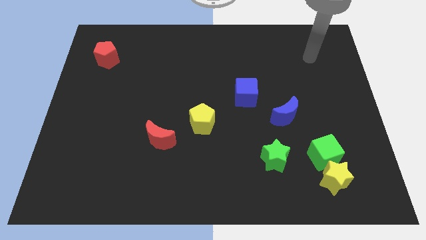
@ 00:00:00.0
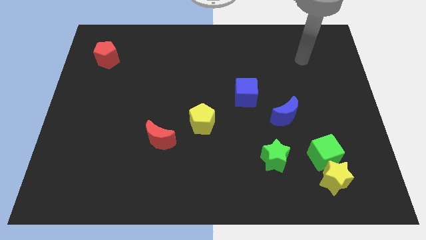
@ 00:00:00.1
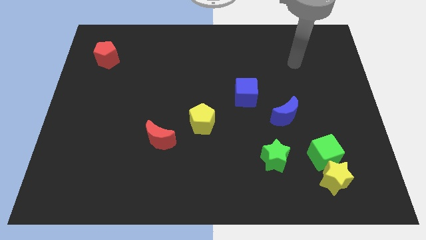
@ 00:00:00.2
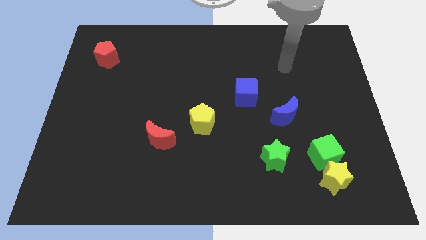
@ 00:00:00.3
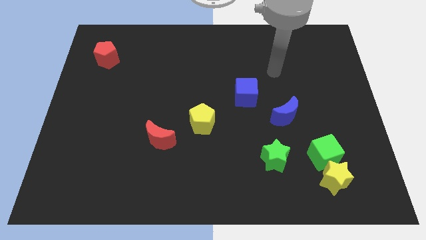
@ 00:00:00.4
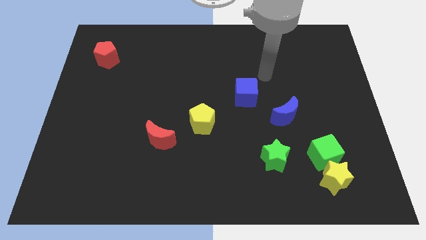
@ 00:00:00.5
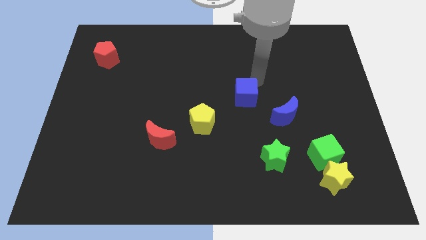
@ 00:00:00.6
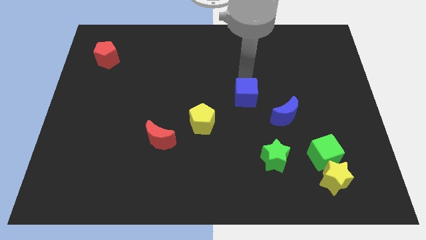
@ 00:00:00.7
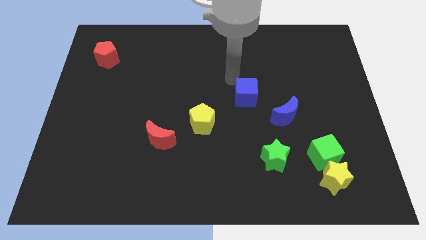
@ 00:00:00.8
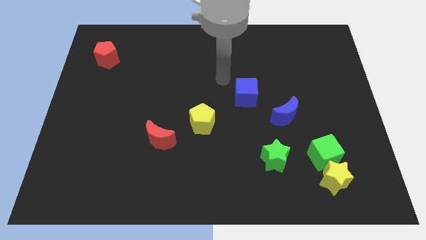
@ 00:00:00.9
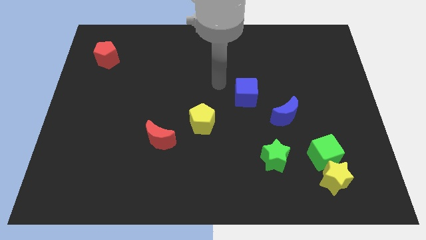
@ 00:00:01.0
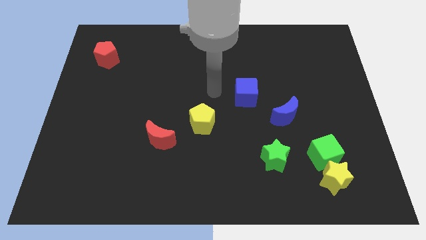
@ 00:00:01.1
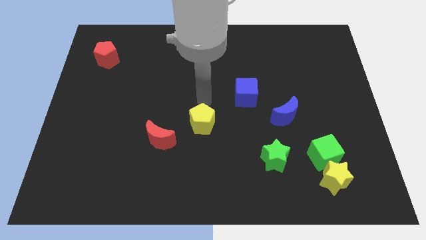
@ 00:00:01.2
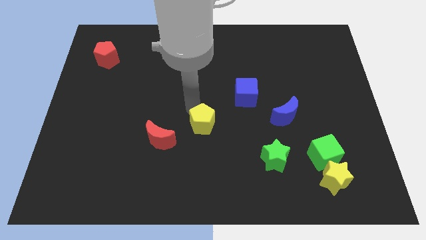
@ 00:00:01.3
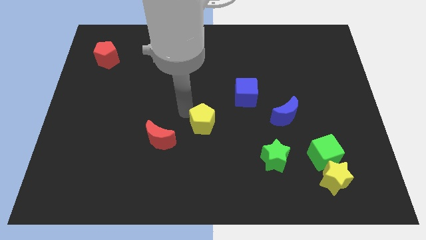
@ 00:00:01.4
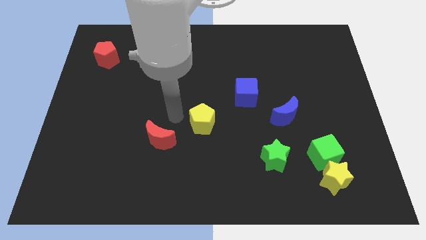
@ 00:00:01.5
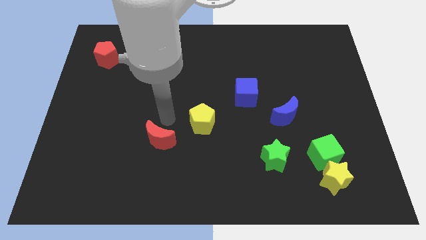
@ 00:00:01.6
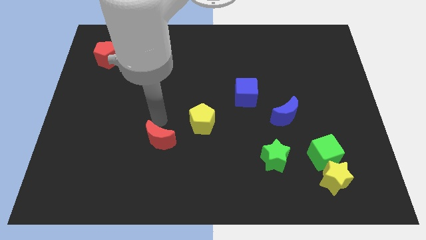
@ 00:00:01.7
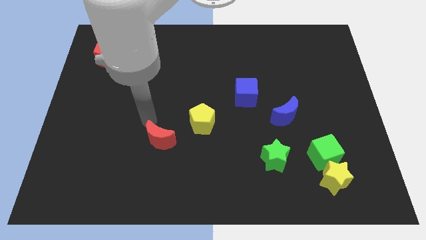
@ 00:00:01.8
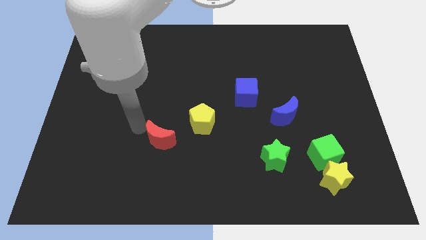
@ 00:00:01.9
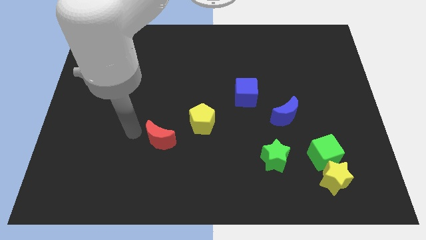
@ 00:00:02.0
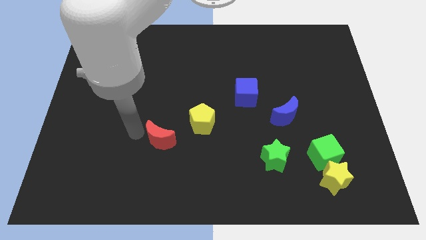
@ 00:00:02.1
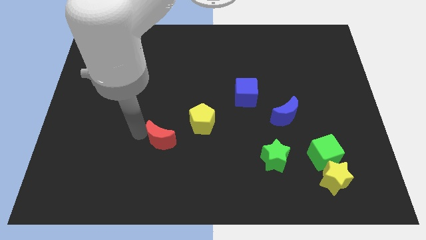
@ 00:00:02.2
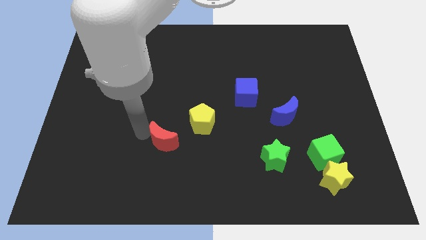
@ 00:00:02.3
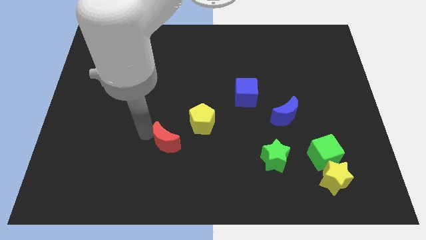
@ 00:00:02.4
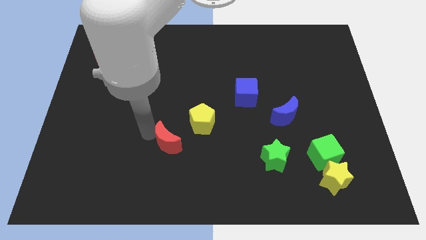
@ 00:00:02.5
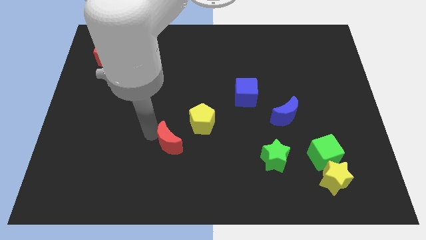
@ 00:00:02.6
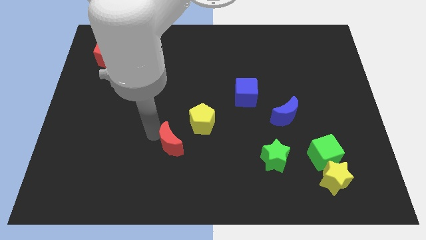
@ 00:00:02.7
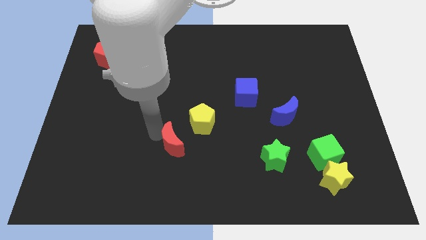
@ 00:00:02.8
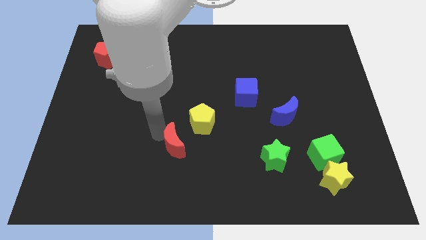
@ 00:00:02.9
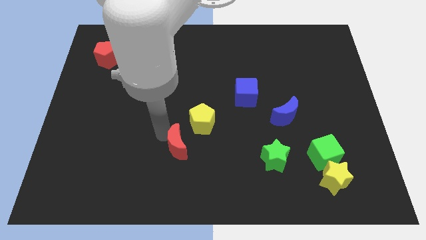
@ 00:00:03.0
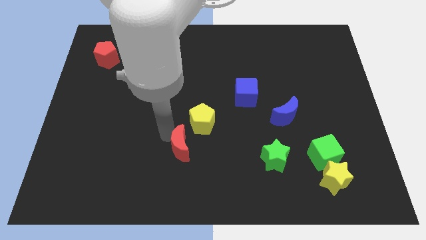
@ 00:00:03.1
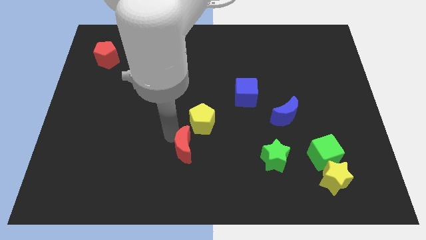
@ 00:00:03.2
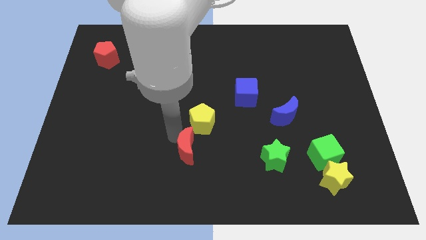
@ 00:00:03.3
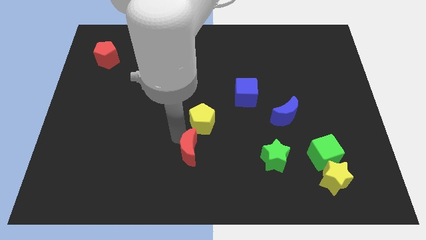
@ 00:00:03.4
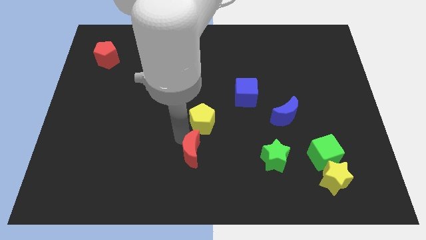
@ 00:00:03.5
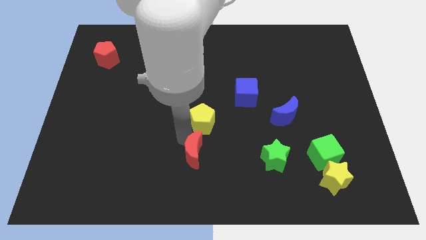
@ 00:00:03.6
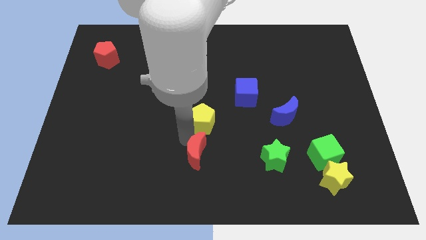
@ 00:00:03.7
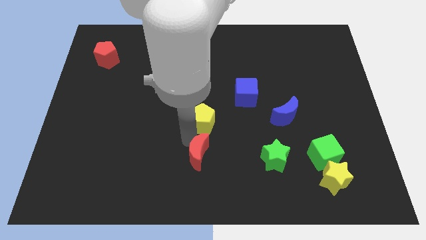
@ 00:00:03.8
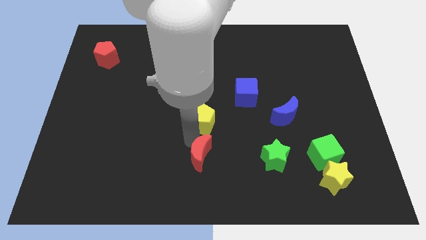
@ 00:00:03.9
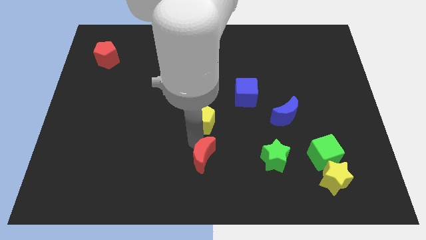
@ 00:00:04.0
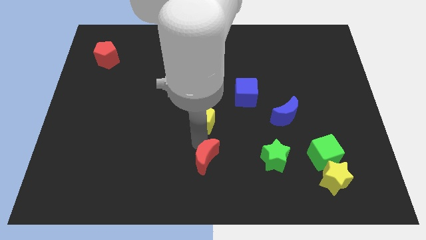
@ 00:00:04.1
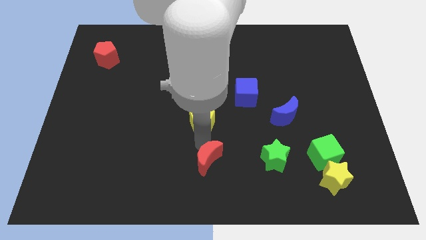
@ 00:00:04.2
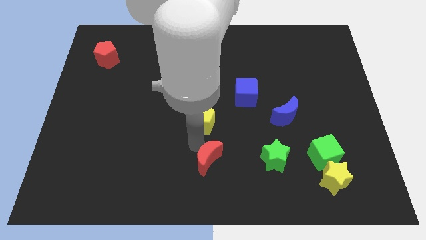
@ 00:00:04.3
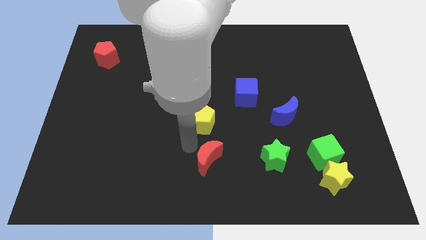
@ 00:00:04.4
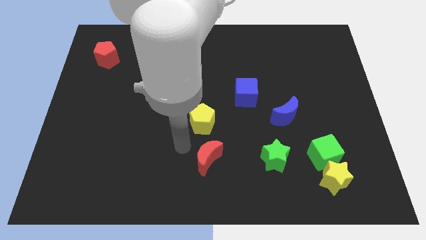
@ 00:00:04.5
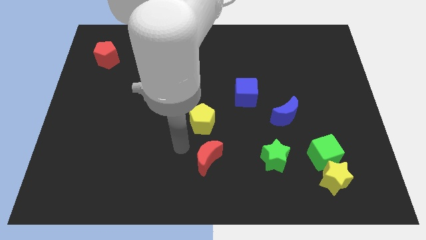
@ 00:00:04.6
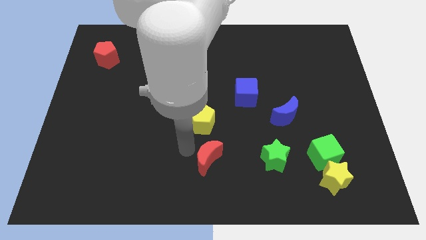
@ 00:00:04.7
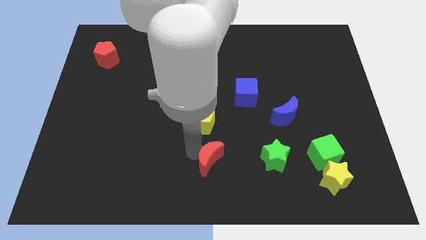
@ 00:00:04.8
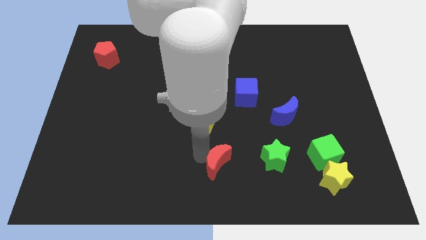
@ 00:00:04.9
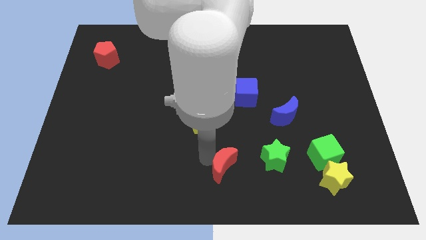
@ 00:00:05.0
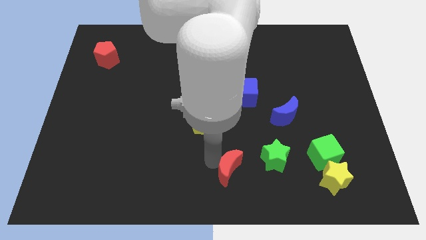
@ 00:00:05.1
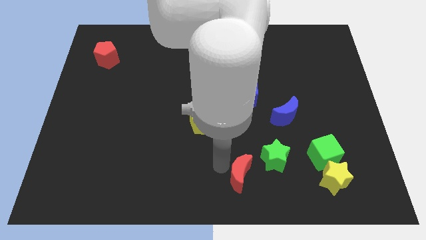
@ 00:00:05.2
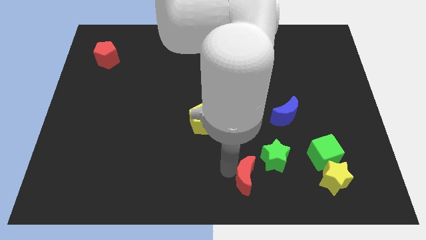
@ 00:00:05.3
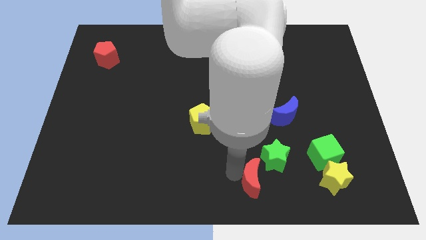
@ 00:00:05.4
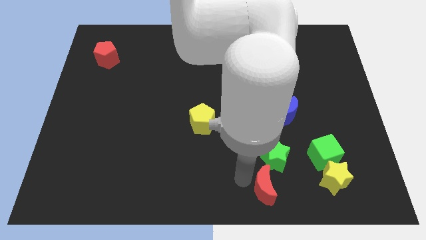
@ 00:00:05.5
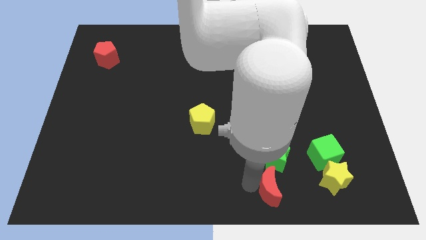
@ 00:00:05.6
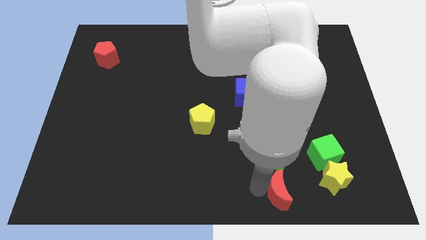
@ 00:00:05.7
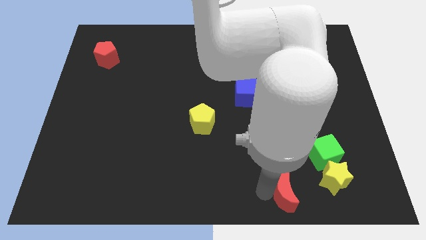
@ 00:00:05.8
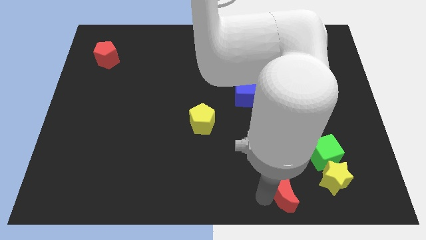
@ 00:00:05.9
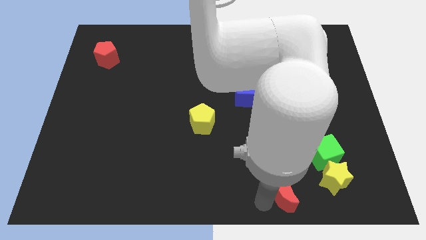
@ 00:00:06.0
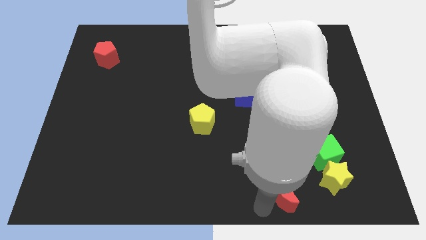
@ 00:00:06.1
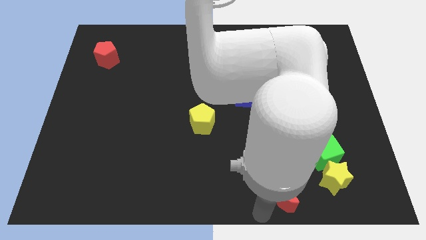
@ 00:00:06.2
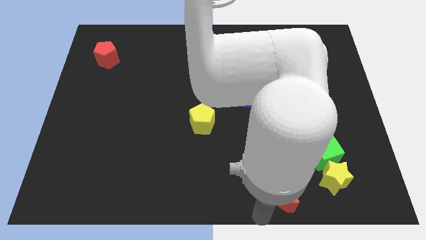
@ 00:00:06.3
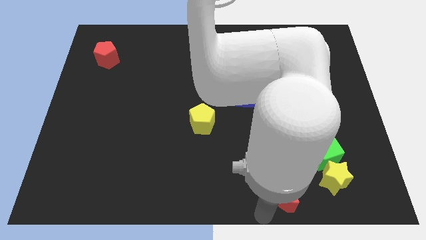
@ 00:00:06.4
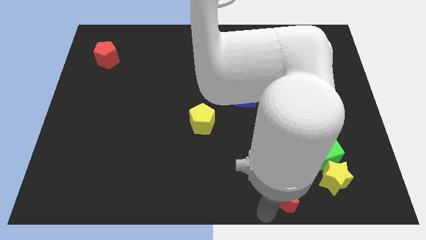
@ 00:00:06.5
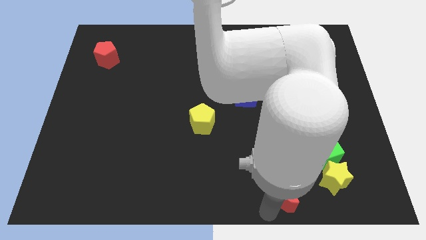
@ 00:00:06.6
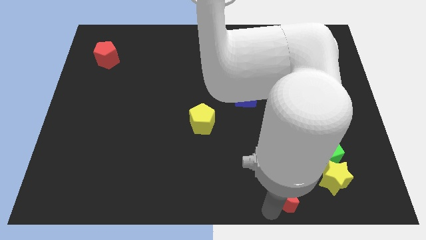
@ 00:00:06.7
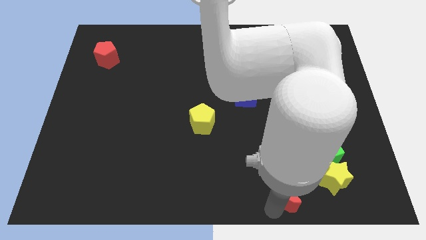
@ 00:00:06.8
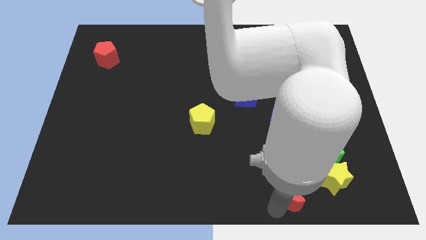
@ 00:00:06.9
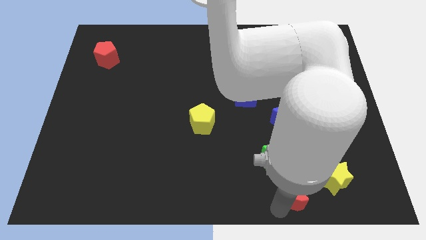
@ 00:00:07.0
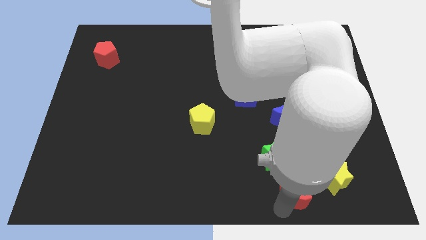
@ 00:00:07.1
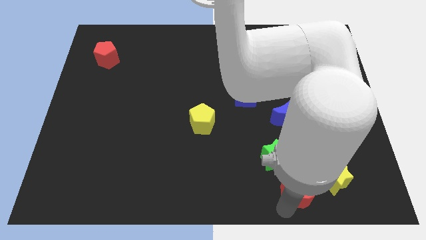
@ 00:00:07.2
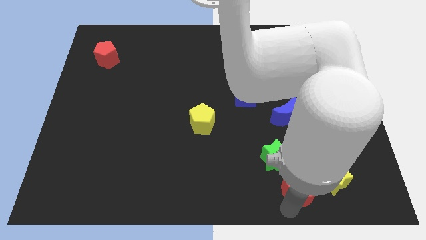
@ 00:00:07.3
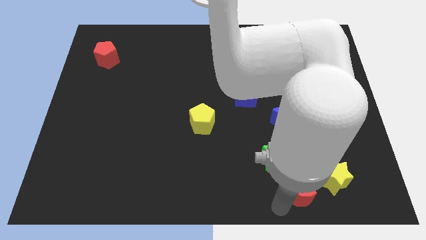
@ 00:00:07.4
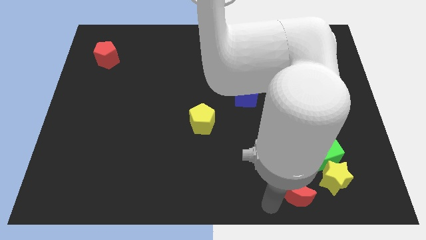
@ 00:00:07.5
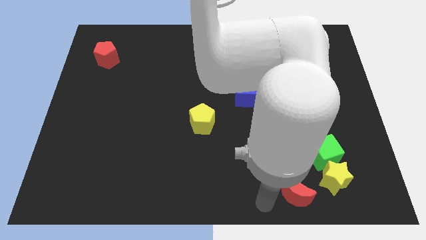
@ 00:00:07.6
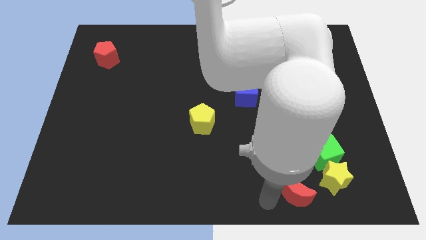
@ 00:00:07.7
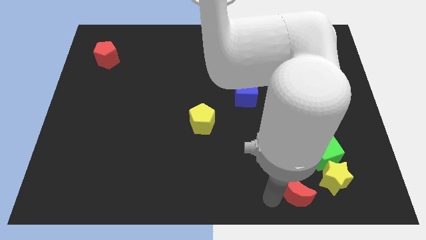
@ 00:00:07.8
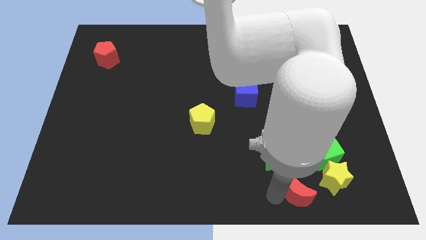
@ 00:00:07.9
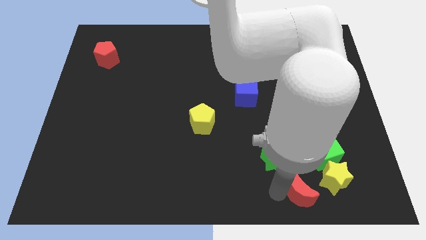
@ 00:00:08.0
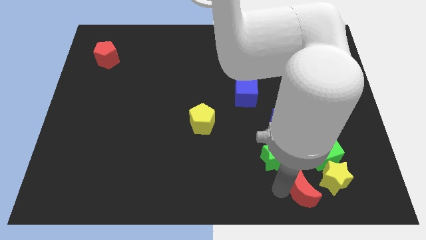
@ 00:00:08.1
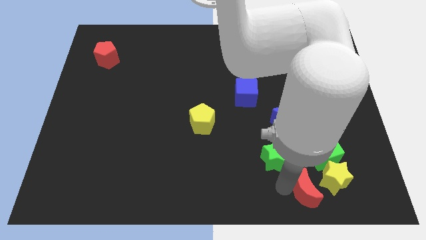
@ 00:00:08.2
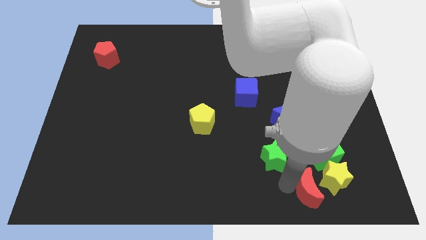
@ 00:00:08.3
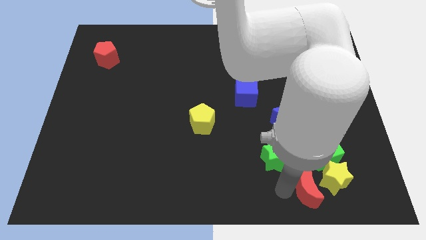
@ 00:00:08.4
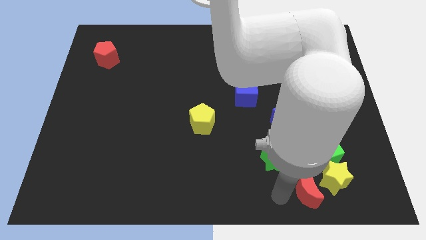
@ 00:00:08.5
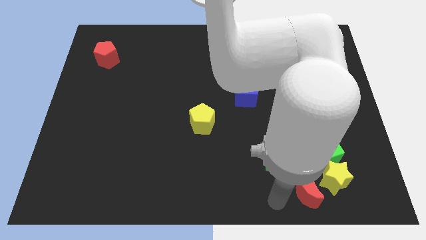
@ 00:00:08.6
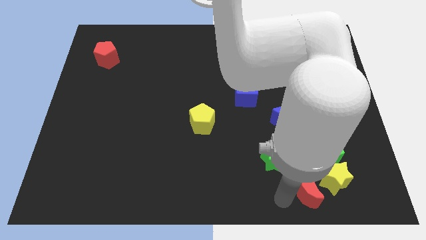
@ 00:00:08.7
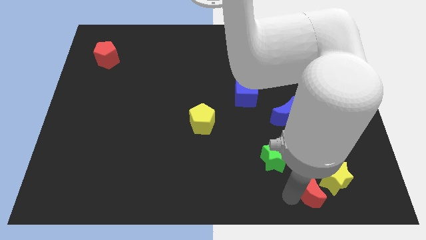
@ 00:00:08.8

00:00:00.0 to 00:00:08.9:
slide the red moon towards the yellow star
